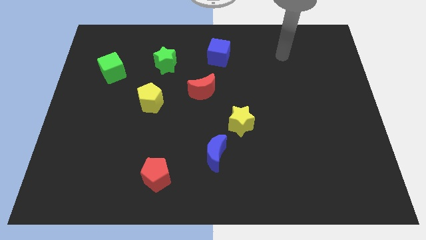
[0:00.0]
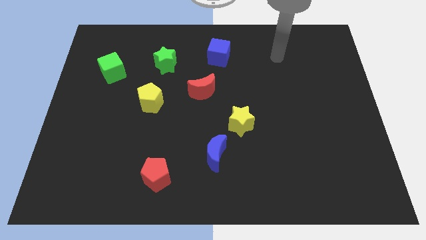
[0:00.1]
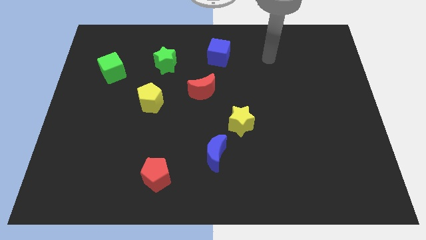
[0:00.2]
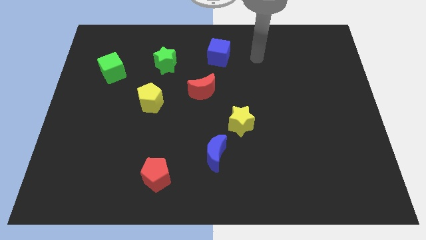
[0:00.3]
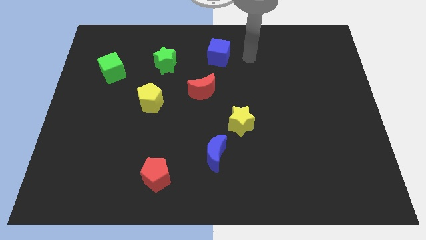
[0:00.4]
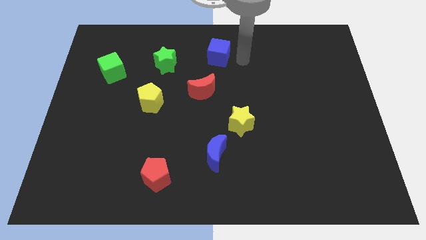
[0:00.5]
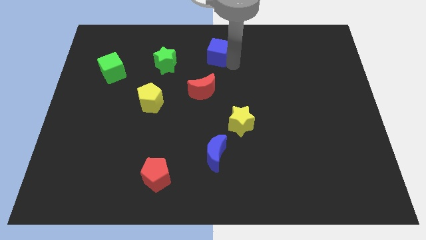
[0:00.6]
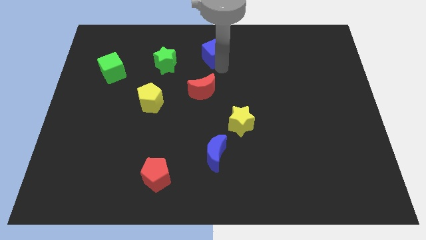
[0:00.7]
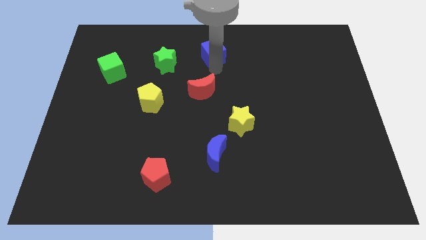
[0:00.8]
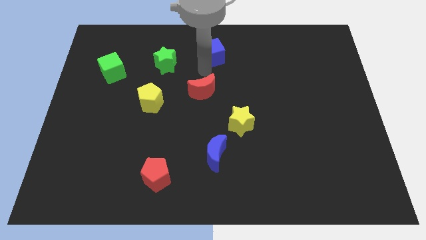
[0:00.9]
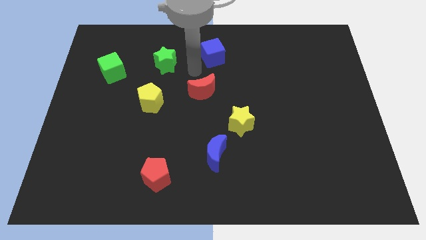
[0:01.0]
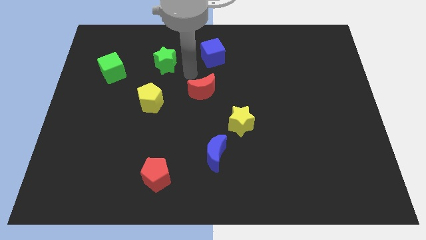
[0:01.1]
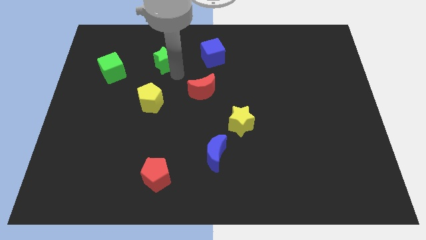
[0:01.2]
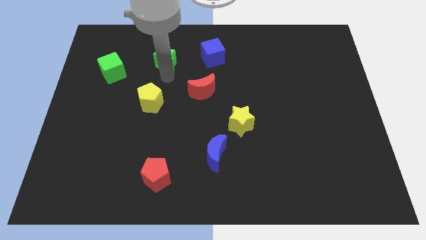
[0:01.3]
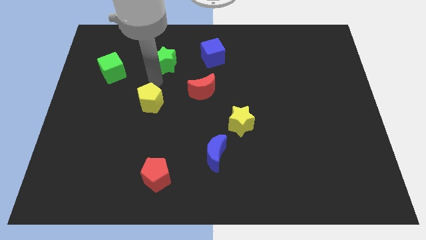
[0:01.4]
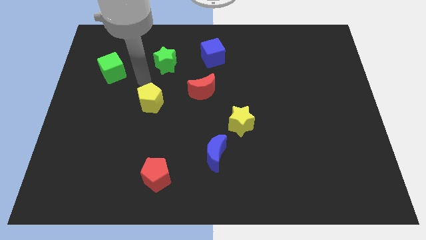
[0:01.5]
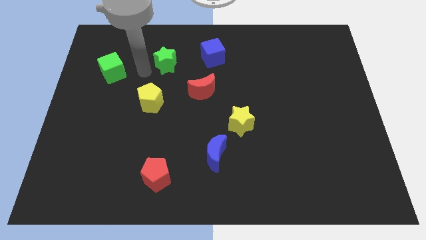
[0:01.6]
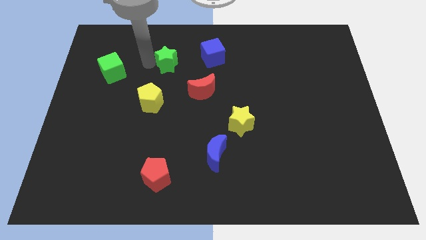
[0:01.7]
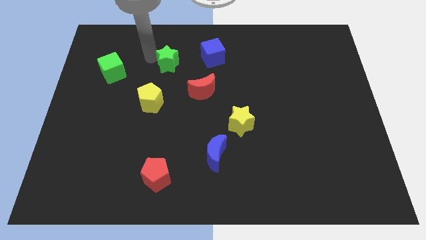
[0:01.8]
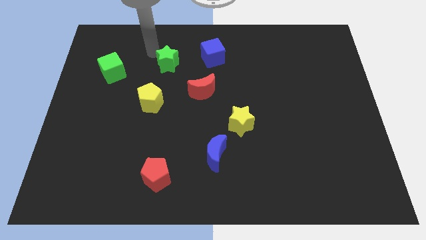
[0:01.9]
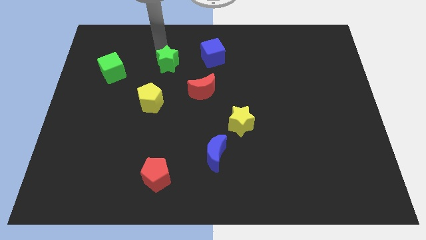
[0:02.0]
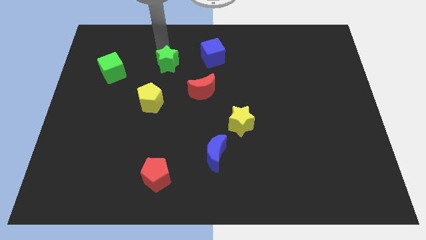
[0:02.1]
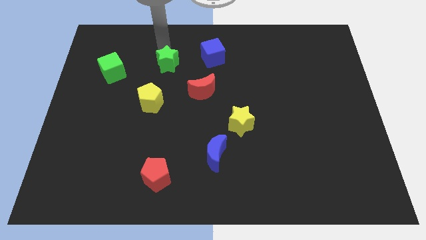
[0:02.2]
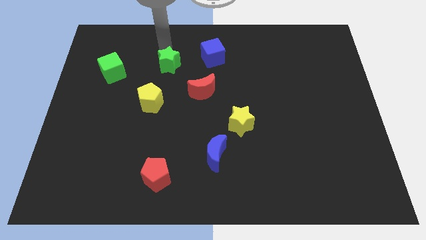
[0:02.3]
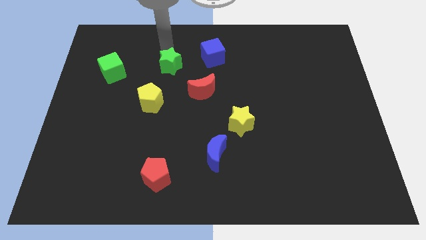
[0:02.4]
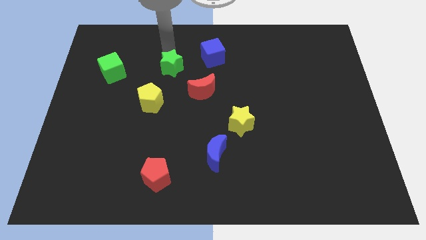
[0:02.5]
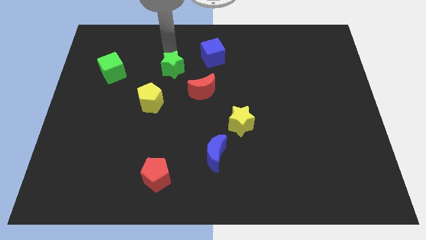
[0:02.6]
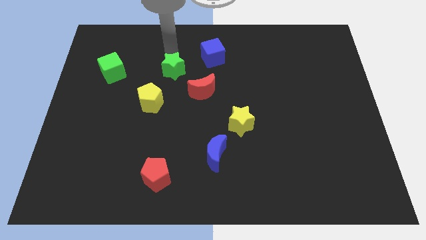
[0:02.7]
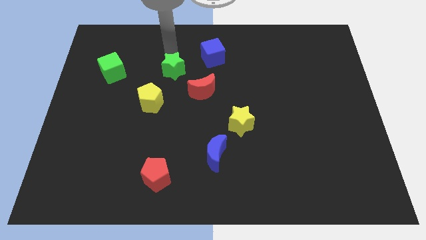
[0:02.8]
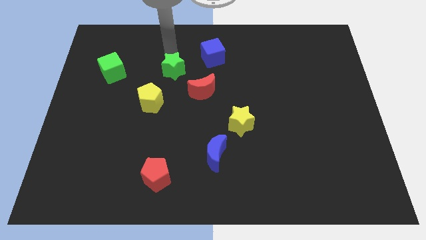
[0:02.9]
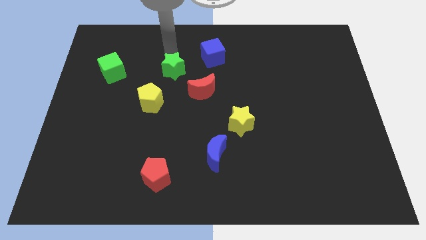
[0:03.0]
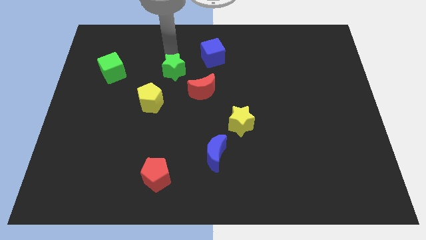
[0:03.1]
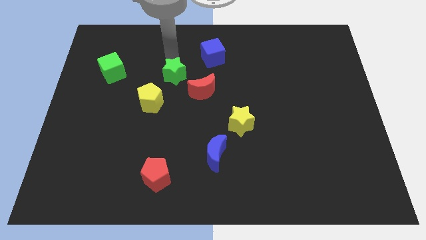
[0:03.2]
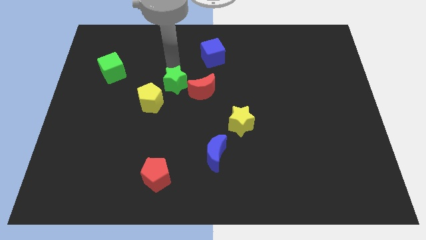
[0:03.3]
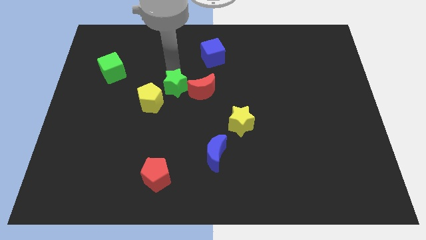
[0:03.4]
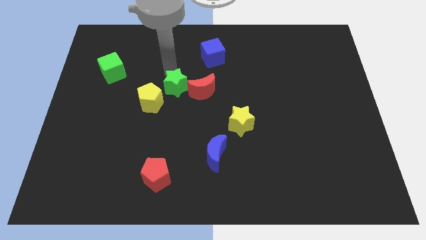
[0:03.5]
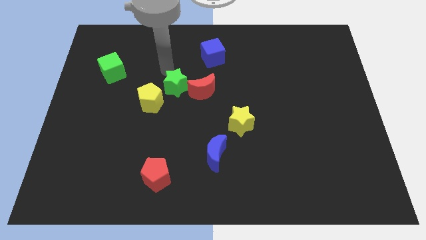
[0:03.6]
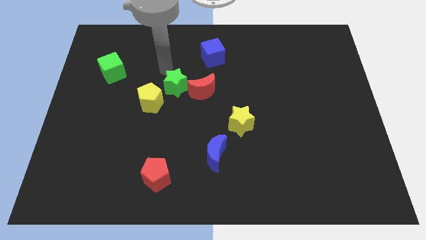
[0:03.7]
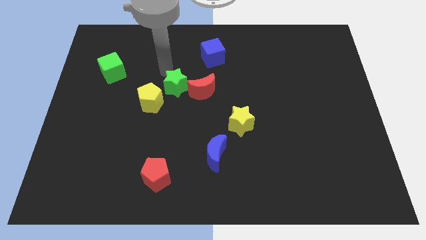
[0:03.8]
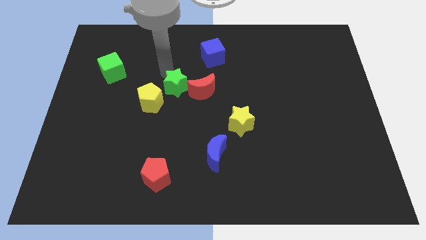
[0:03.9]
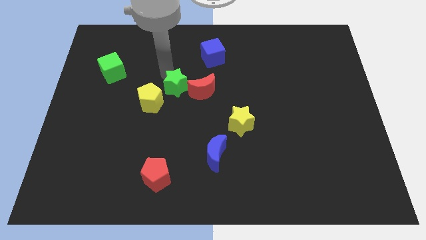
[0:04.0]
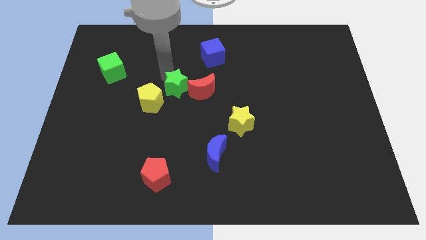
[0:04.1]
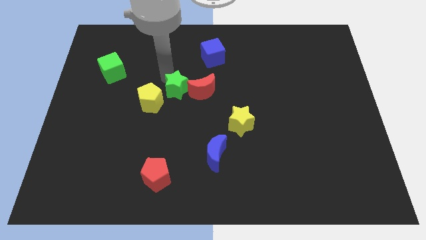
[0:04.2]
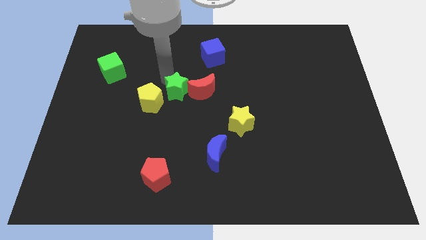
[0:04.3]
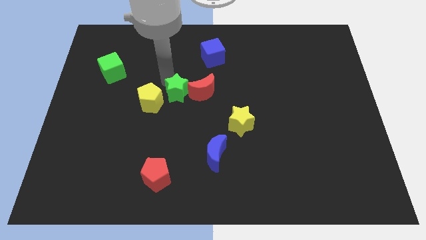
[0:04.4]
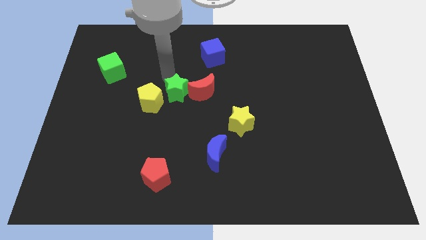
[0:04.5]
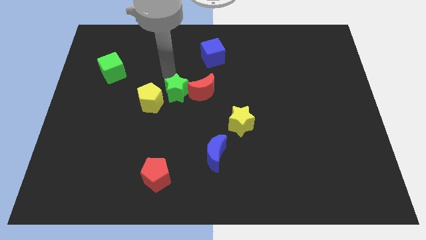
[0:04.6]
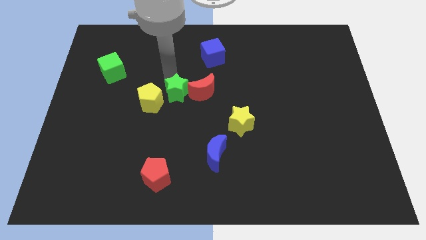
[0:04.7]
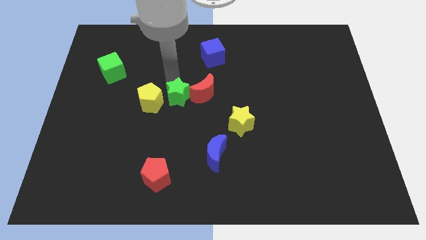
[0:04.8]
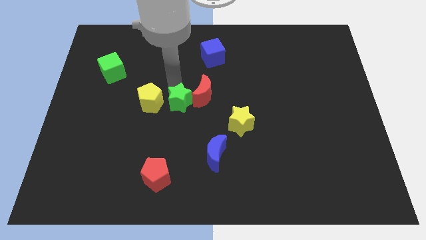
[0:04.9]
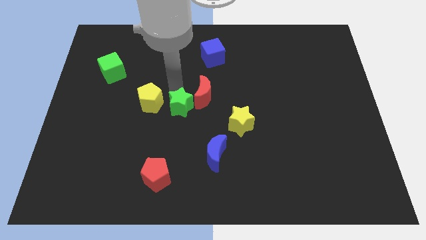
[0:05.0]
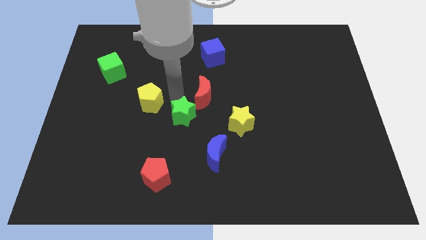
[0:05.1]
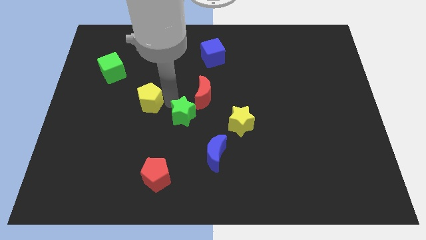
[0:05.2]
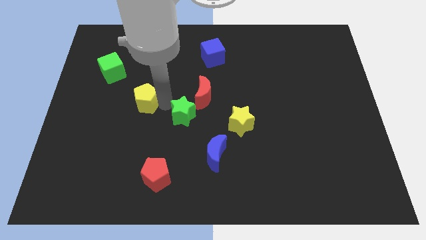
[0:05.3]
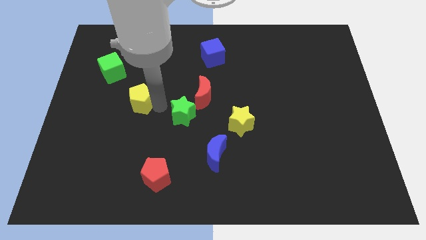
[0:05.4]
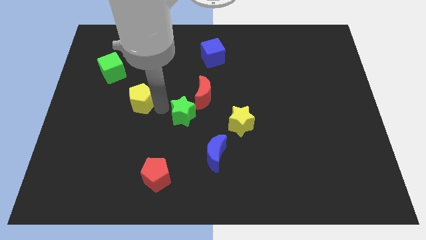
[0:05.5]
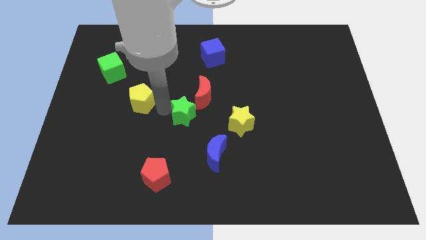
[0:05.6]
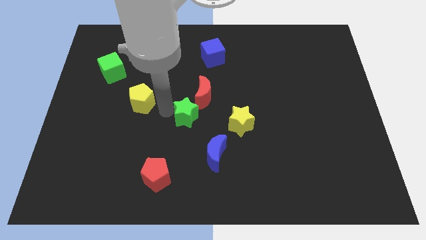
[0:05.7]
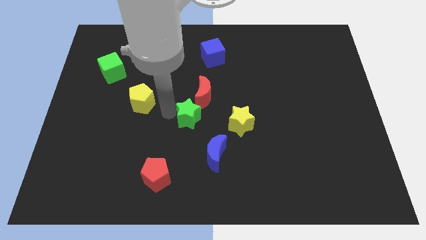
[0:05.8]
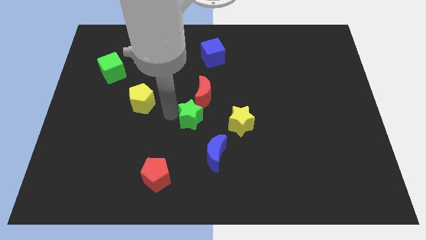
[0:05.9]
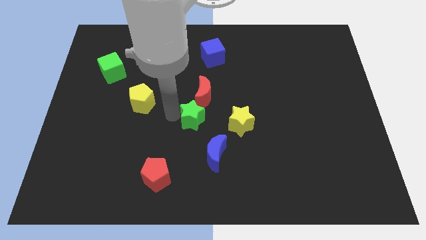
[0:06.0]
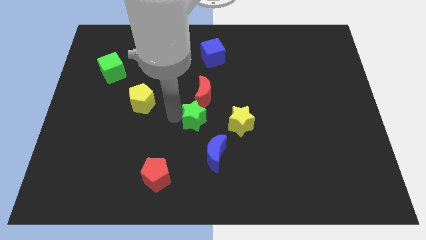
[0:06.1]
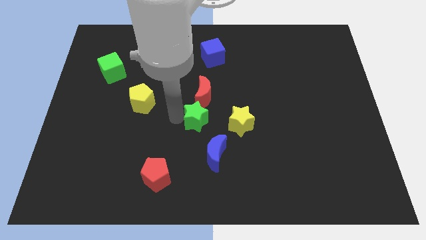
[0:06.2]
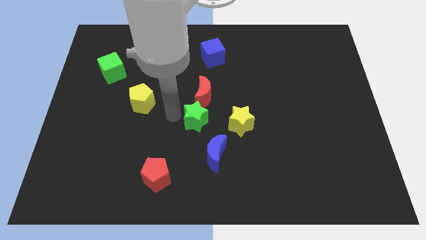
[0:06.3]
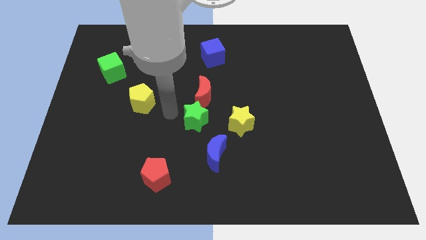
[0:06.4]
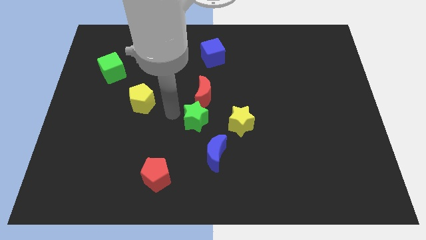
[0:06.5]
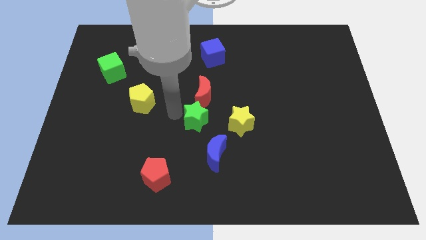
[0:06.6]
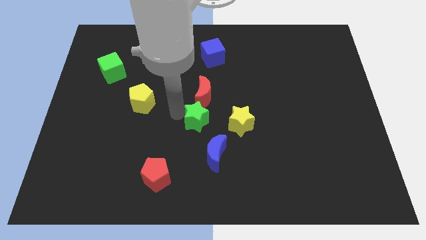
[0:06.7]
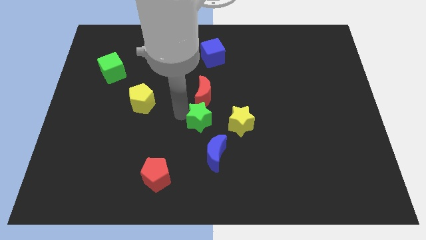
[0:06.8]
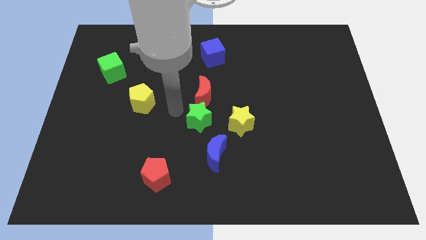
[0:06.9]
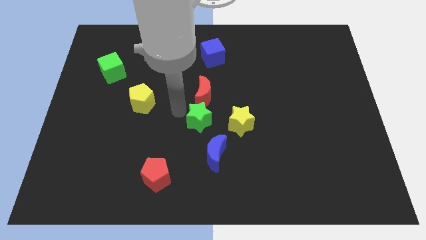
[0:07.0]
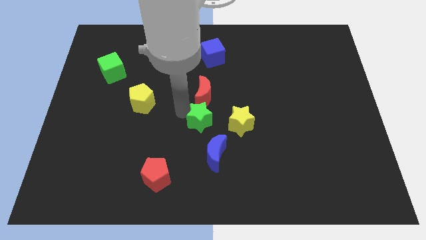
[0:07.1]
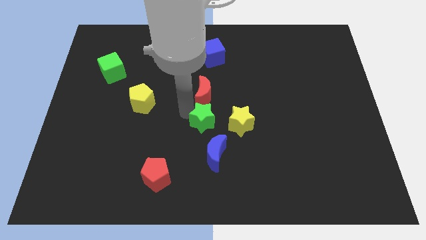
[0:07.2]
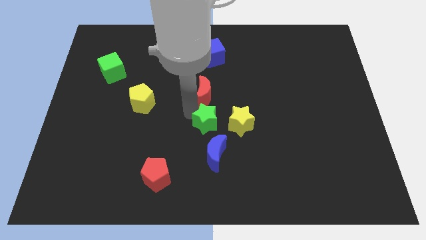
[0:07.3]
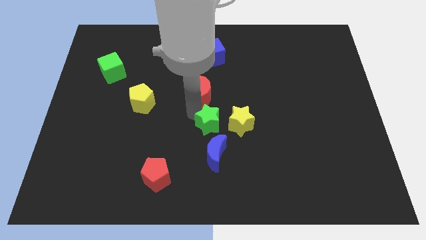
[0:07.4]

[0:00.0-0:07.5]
push the green star down and to the right diagonally

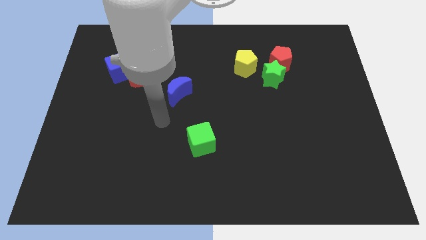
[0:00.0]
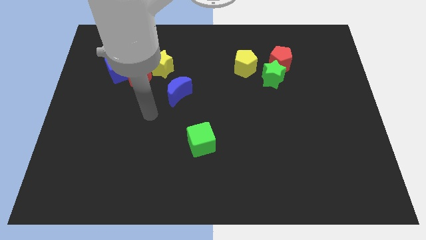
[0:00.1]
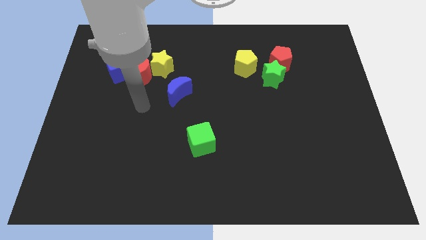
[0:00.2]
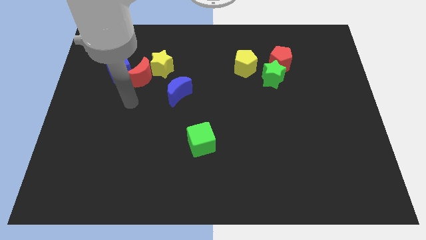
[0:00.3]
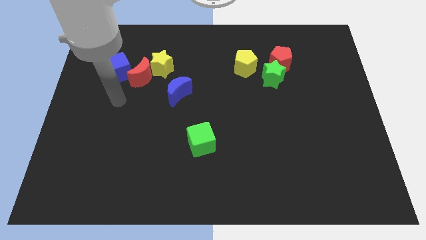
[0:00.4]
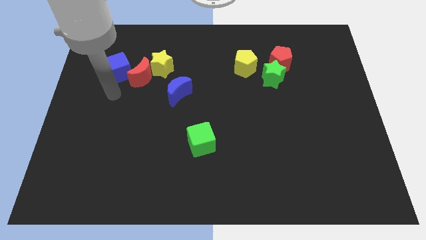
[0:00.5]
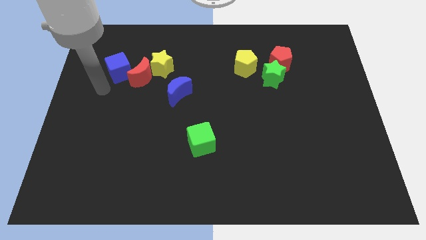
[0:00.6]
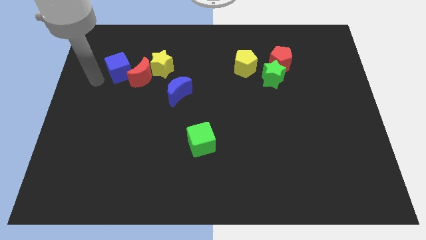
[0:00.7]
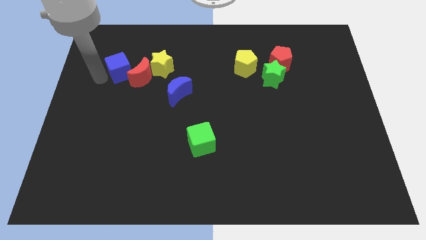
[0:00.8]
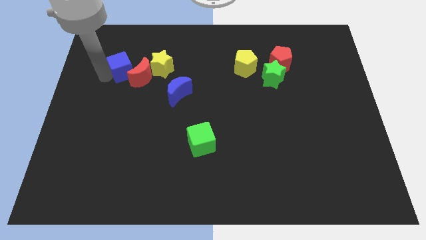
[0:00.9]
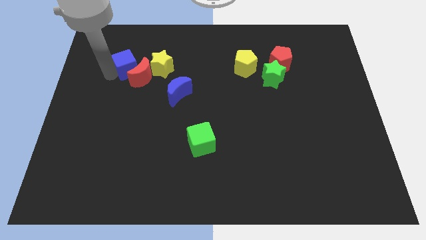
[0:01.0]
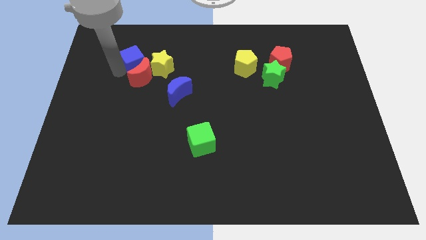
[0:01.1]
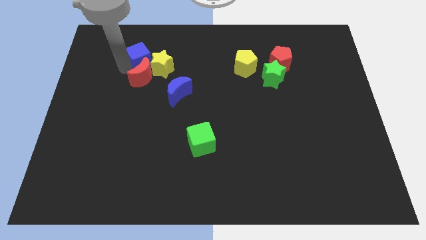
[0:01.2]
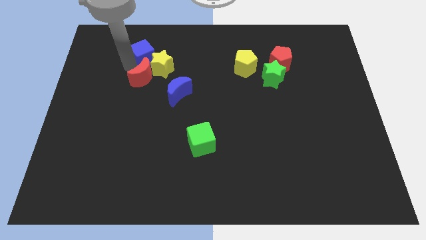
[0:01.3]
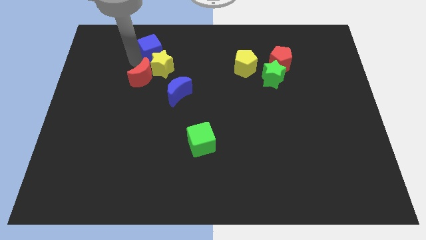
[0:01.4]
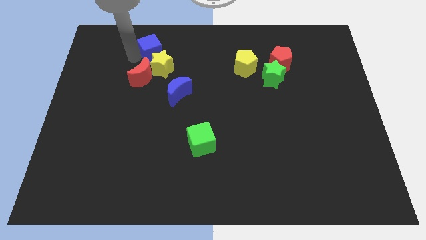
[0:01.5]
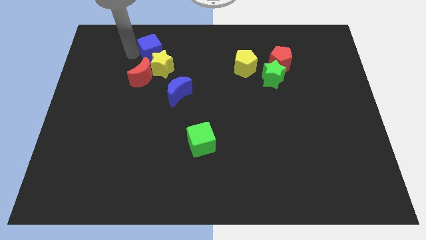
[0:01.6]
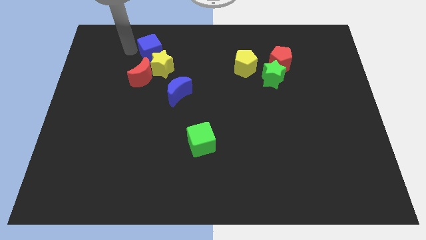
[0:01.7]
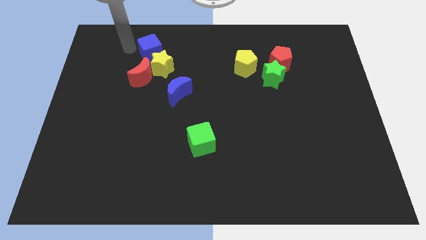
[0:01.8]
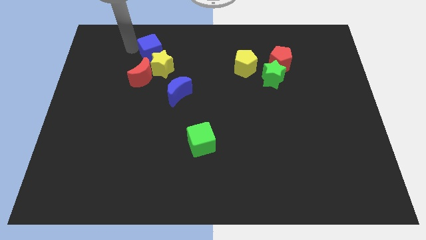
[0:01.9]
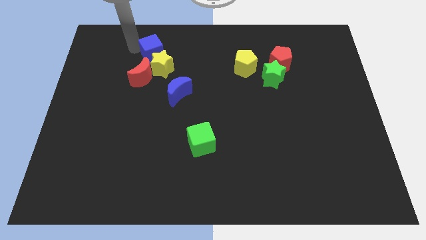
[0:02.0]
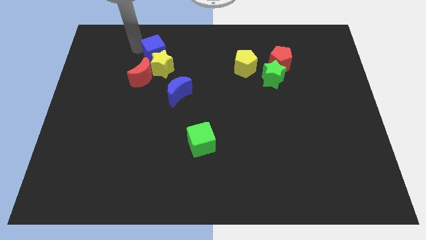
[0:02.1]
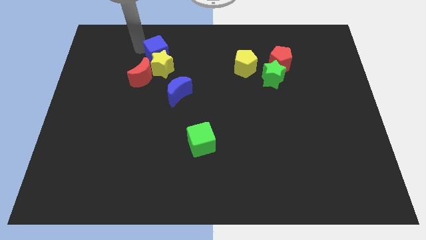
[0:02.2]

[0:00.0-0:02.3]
slightly push the blue cube right
